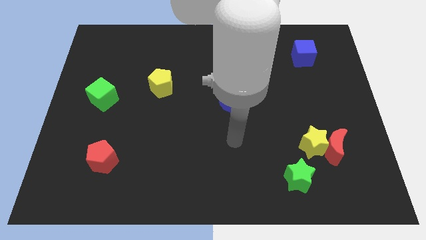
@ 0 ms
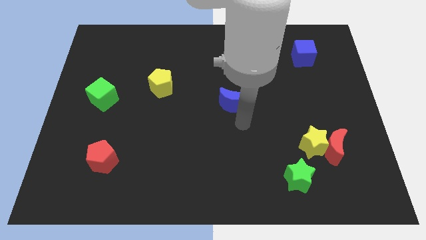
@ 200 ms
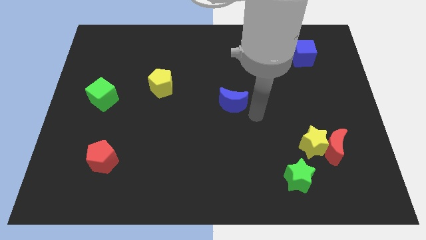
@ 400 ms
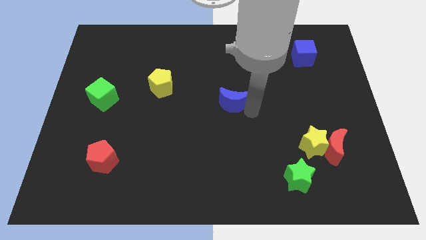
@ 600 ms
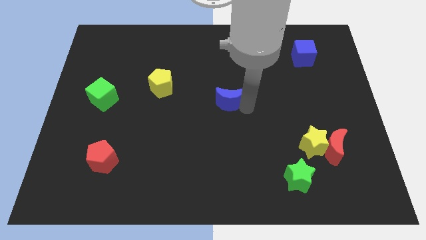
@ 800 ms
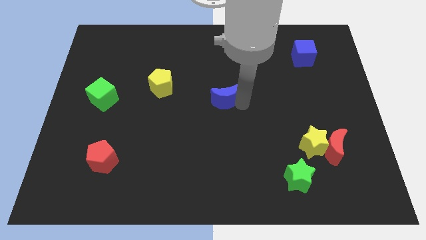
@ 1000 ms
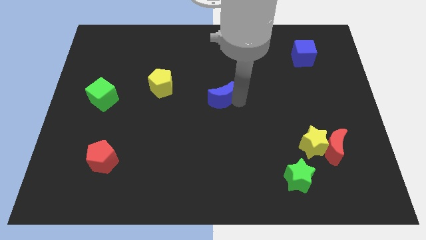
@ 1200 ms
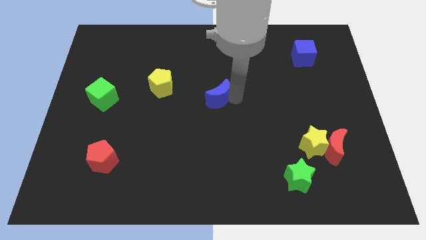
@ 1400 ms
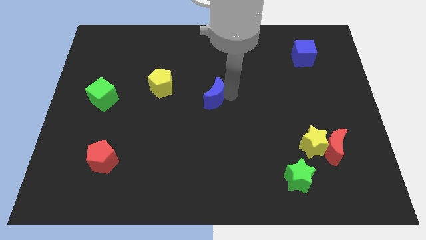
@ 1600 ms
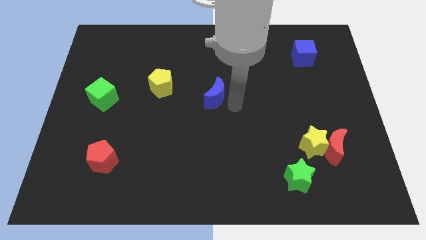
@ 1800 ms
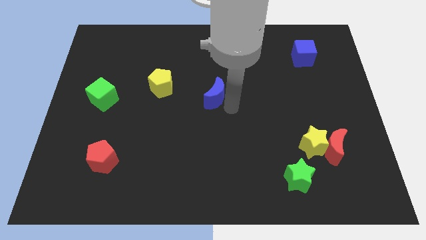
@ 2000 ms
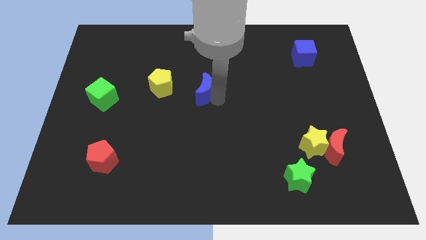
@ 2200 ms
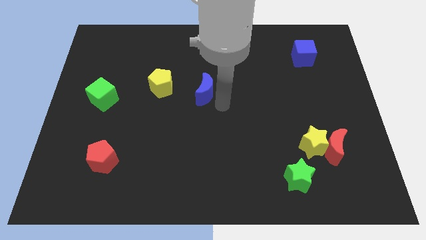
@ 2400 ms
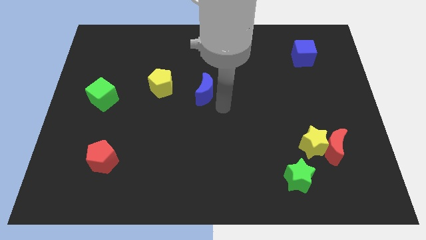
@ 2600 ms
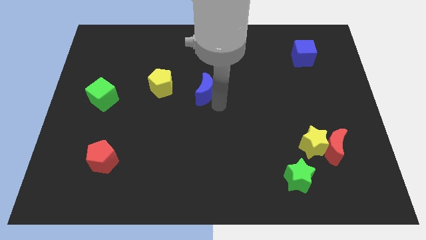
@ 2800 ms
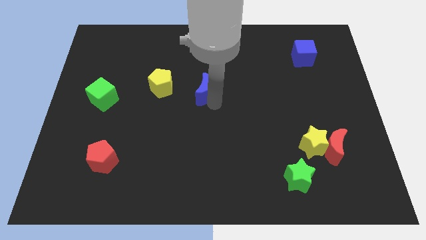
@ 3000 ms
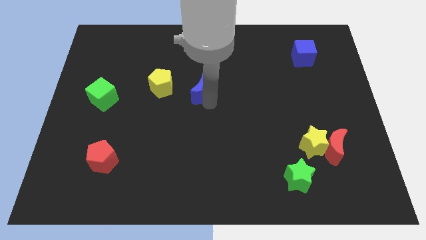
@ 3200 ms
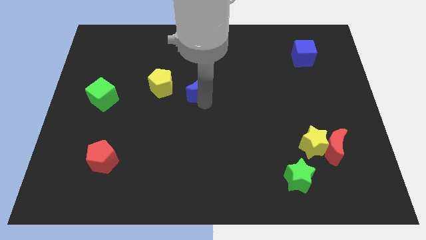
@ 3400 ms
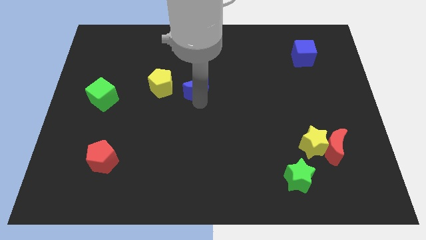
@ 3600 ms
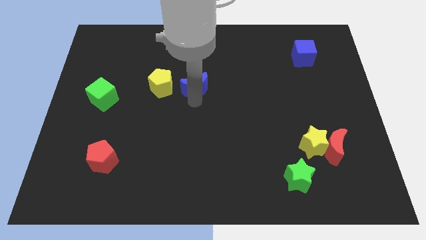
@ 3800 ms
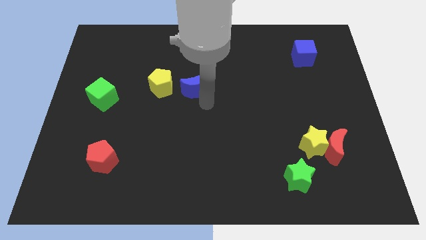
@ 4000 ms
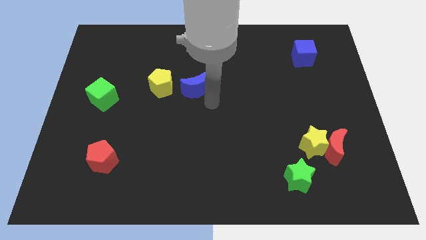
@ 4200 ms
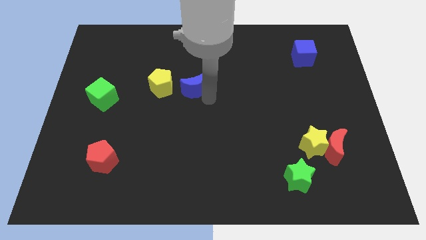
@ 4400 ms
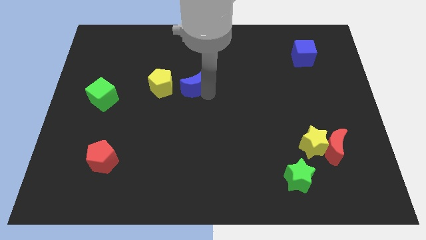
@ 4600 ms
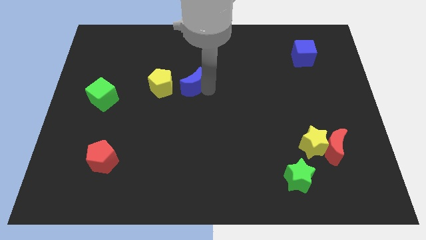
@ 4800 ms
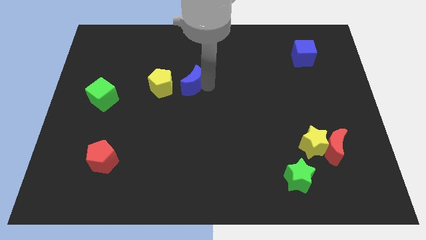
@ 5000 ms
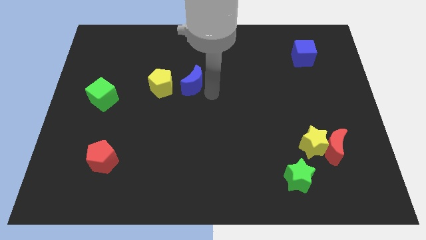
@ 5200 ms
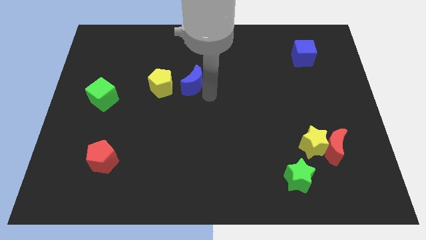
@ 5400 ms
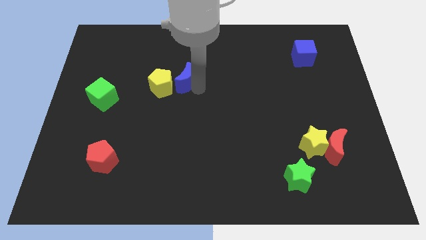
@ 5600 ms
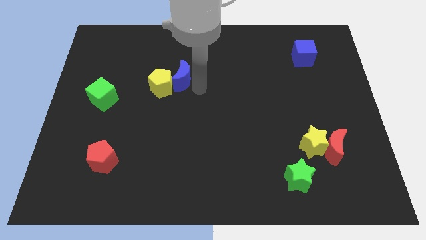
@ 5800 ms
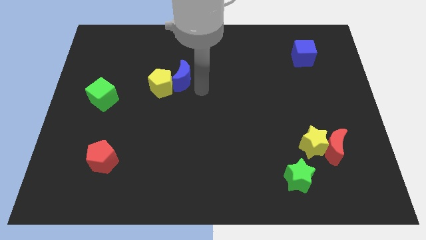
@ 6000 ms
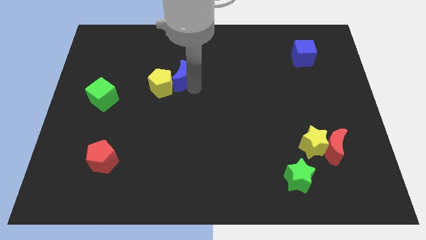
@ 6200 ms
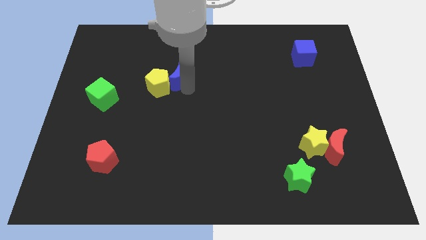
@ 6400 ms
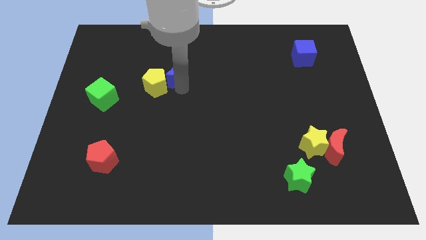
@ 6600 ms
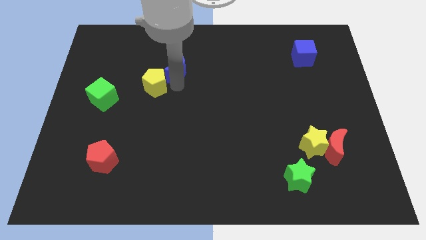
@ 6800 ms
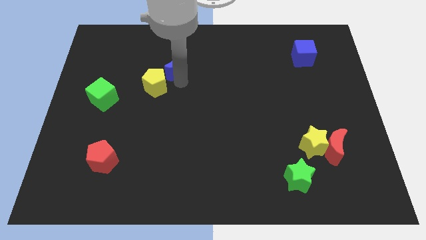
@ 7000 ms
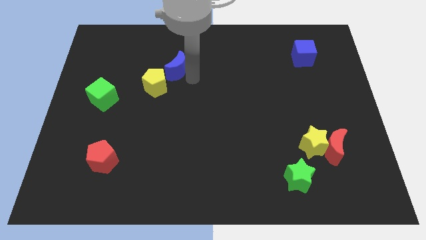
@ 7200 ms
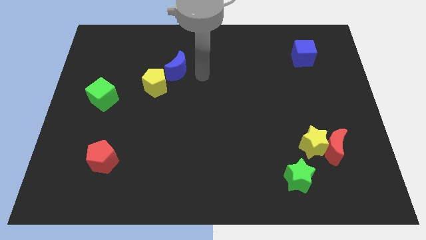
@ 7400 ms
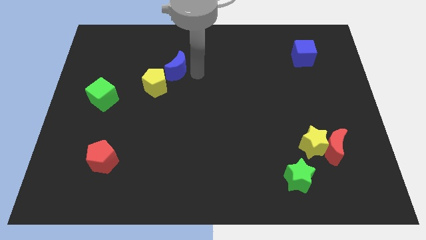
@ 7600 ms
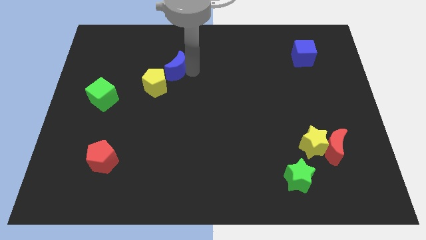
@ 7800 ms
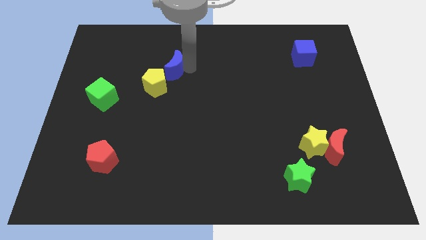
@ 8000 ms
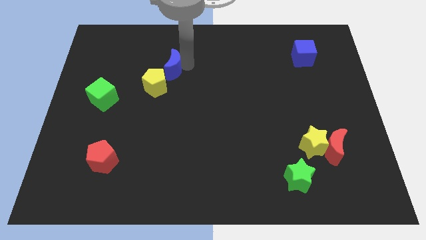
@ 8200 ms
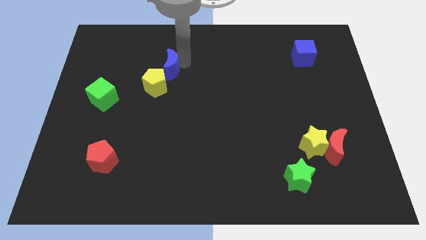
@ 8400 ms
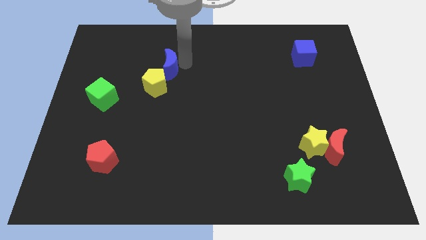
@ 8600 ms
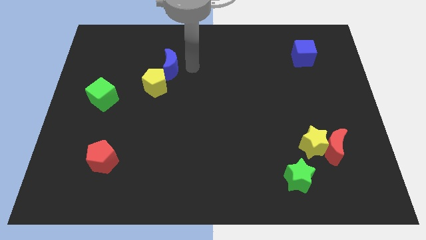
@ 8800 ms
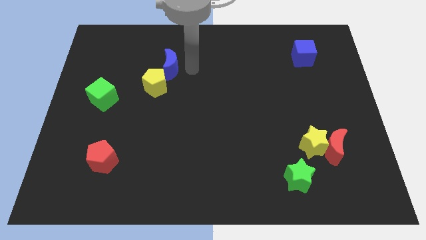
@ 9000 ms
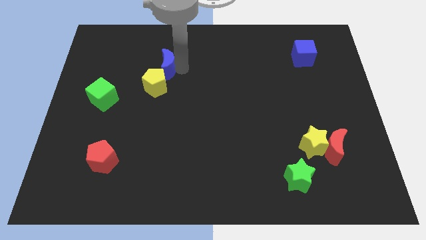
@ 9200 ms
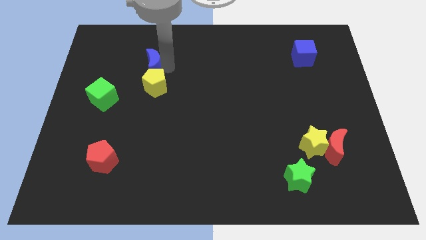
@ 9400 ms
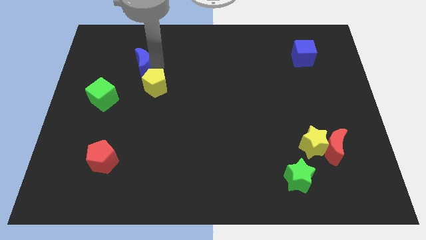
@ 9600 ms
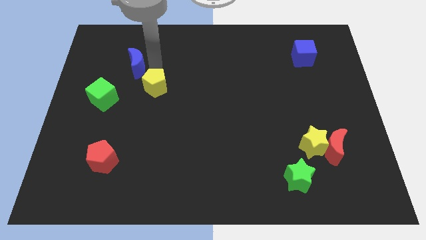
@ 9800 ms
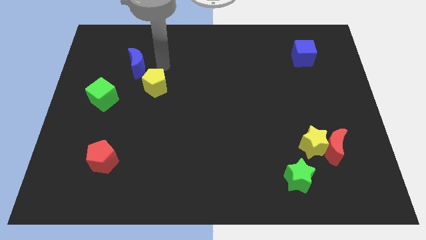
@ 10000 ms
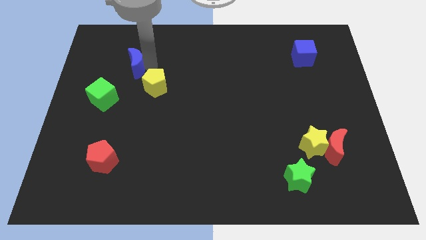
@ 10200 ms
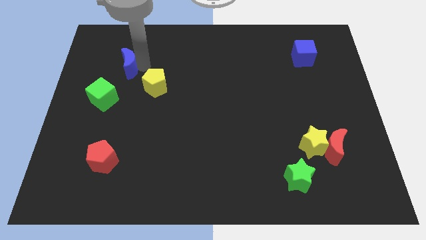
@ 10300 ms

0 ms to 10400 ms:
slide the blue moon to the top side of the green cube

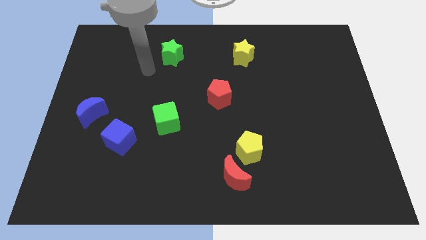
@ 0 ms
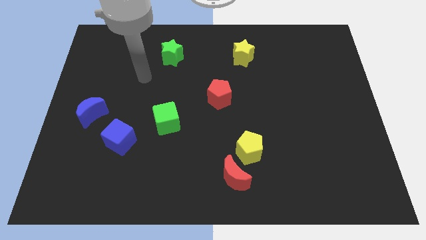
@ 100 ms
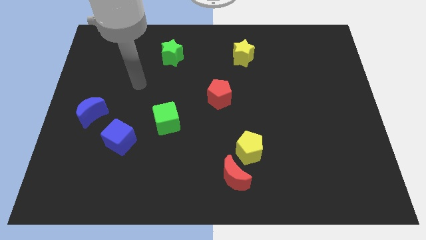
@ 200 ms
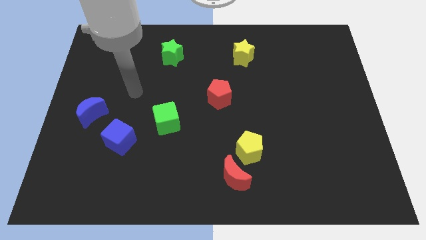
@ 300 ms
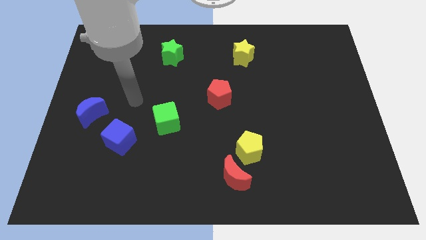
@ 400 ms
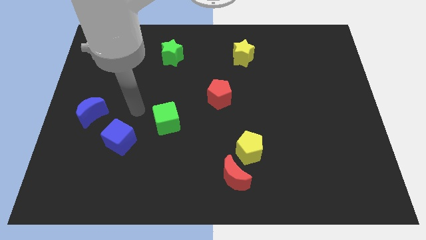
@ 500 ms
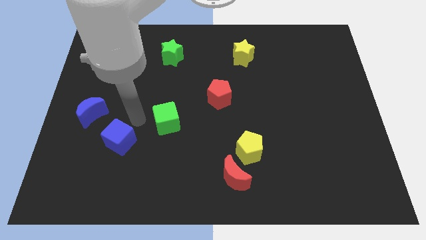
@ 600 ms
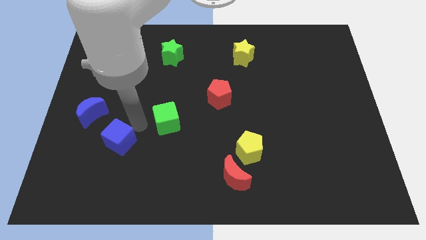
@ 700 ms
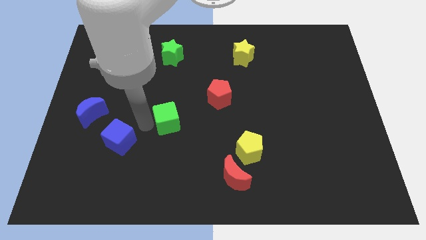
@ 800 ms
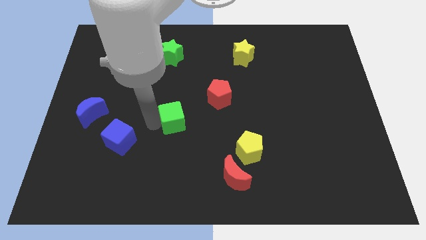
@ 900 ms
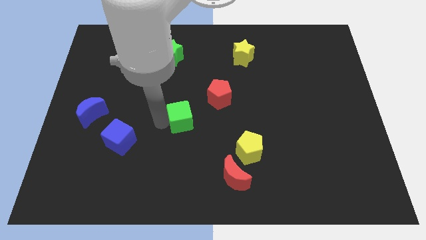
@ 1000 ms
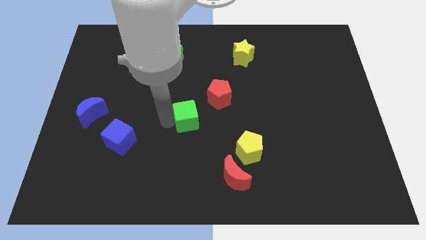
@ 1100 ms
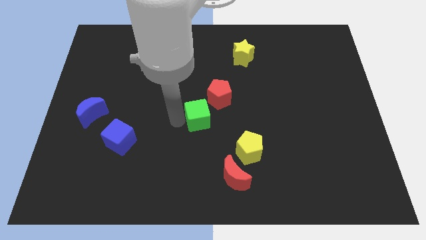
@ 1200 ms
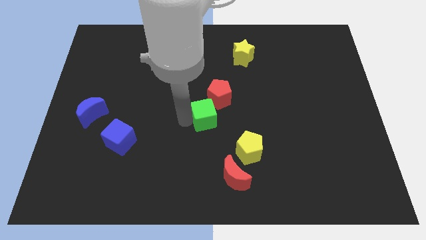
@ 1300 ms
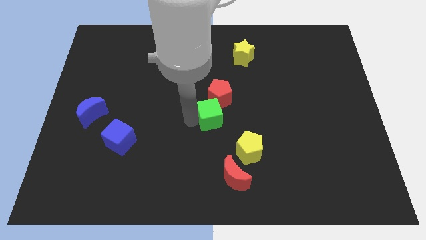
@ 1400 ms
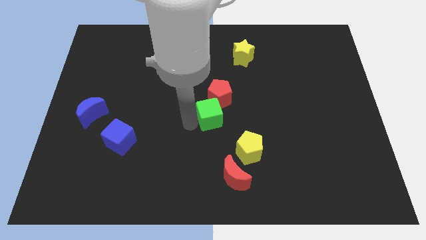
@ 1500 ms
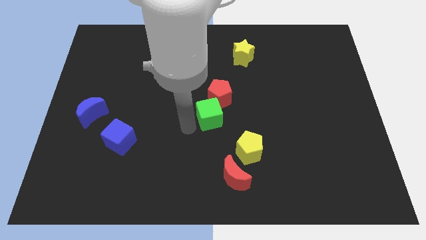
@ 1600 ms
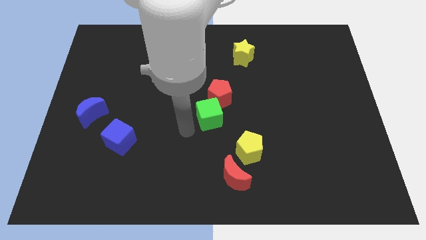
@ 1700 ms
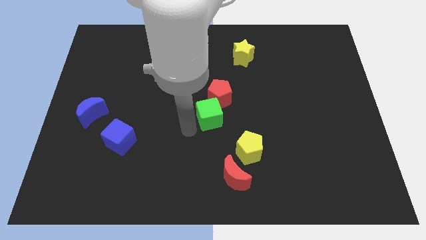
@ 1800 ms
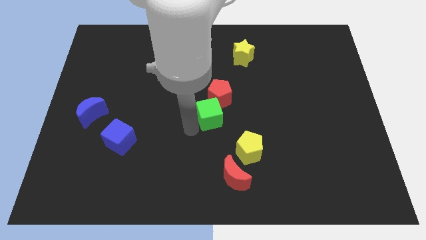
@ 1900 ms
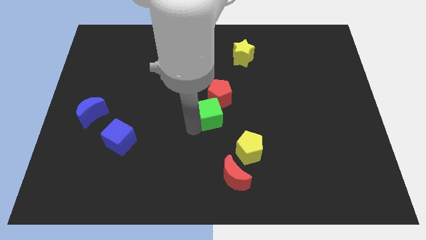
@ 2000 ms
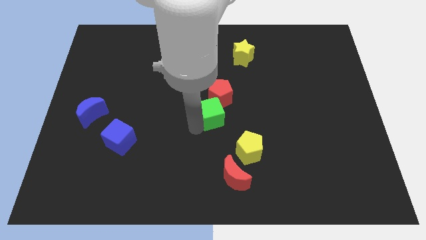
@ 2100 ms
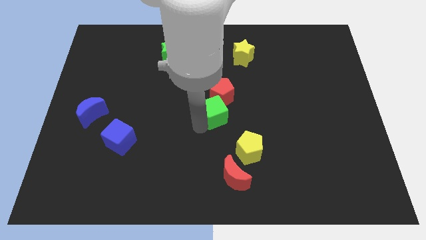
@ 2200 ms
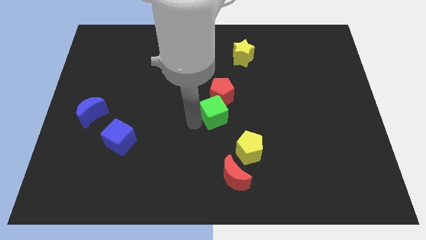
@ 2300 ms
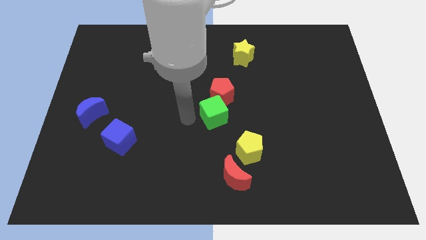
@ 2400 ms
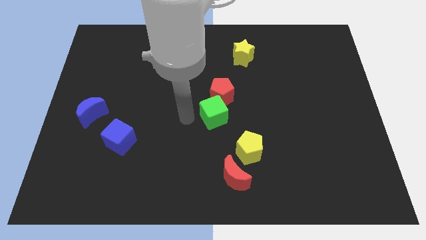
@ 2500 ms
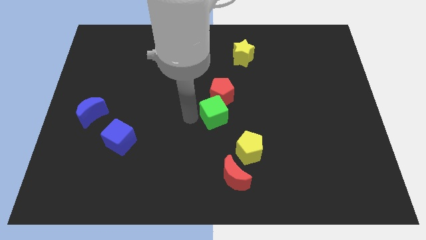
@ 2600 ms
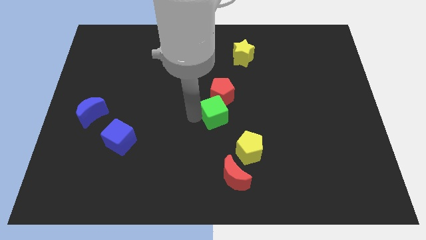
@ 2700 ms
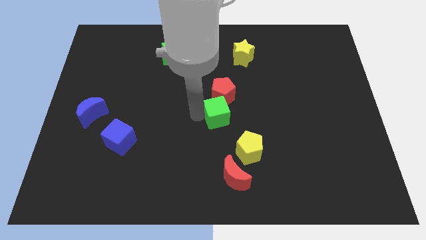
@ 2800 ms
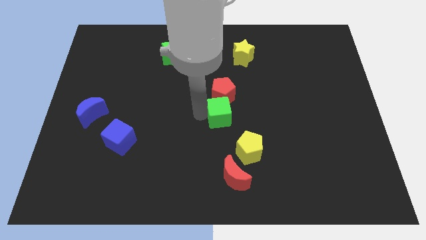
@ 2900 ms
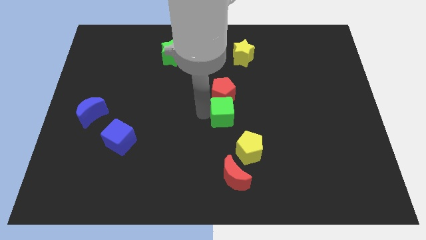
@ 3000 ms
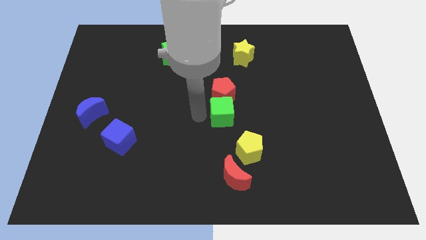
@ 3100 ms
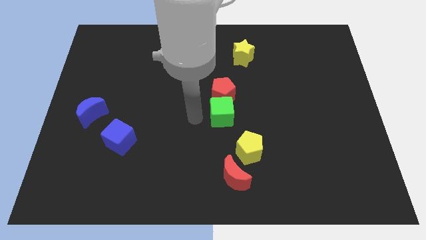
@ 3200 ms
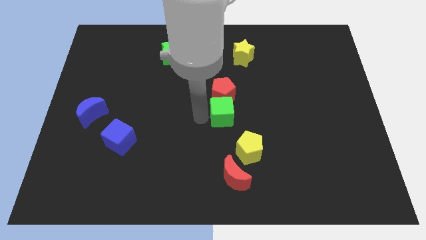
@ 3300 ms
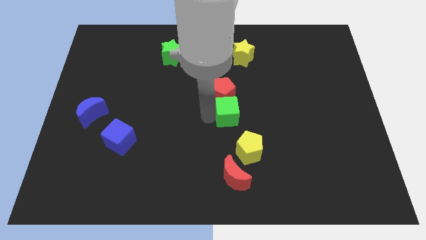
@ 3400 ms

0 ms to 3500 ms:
push the green cube above the yellow pentagon
